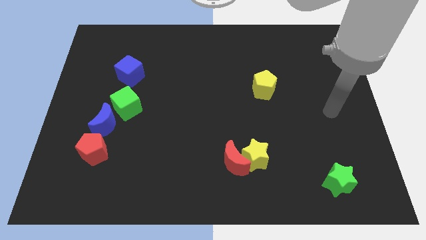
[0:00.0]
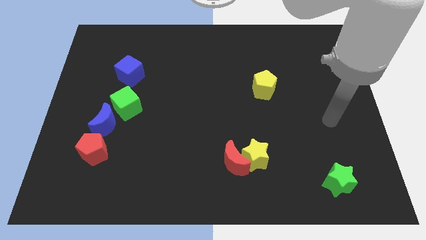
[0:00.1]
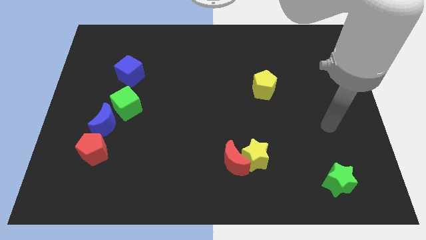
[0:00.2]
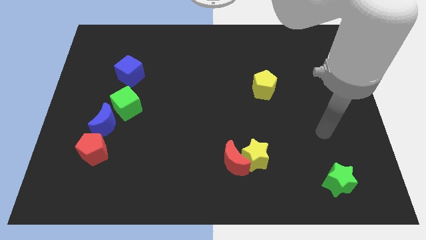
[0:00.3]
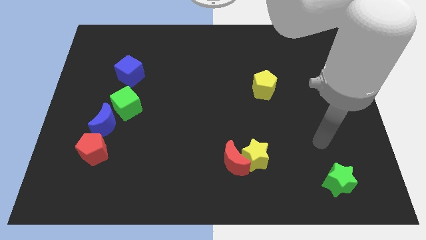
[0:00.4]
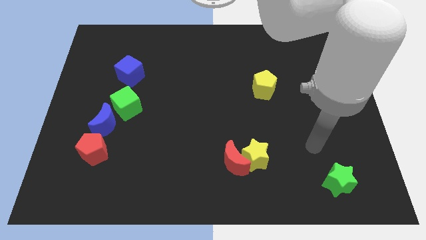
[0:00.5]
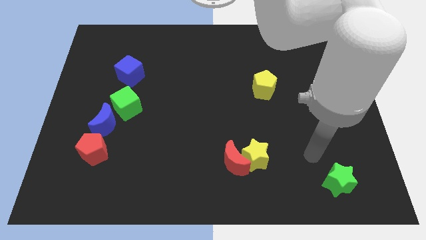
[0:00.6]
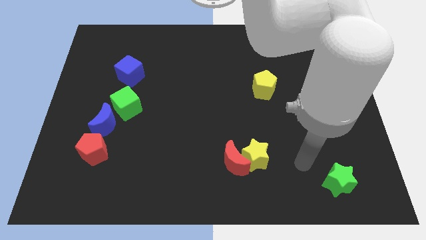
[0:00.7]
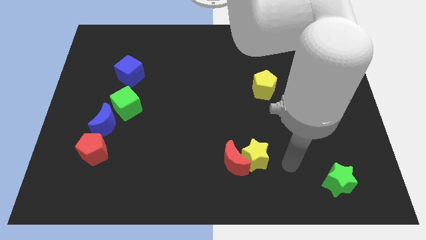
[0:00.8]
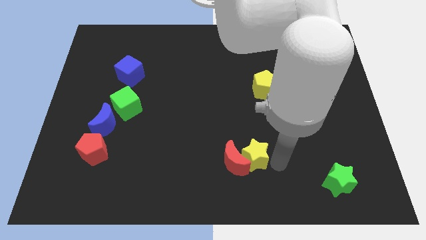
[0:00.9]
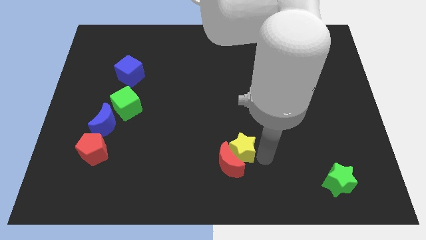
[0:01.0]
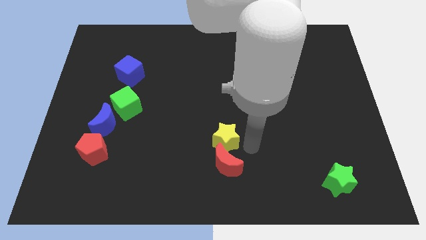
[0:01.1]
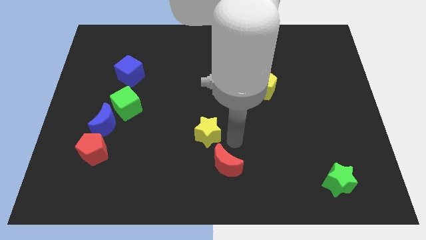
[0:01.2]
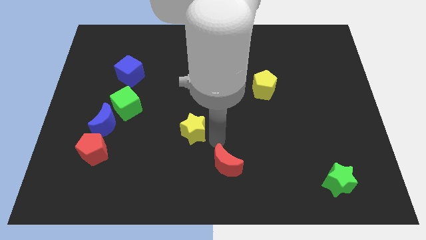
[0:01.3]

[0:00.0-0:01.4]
pull the red moon apart from the yellow star

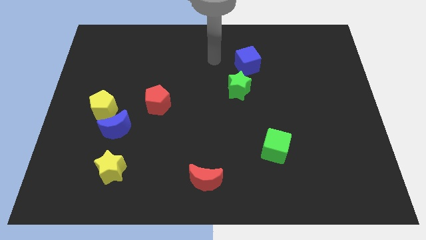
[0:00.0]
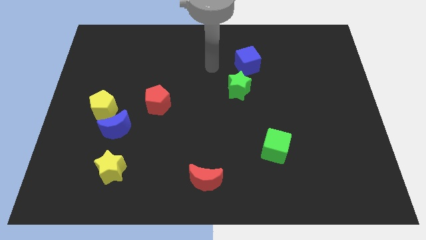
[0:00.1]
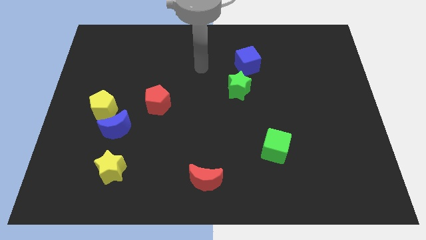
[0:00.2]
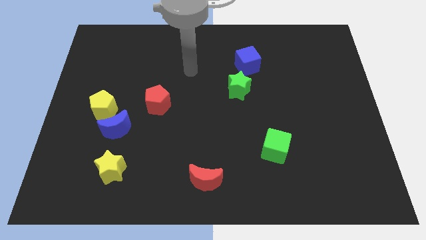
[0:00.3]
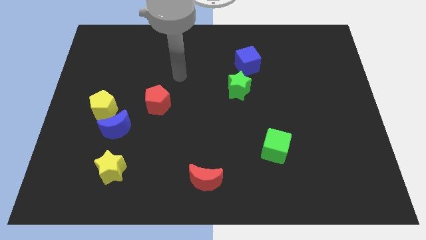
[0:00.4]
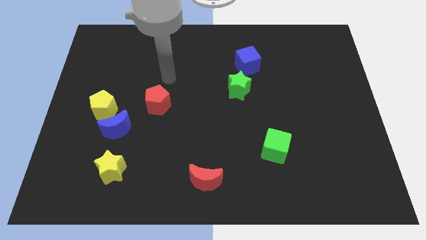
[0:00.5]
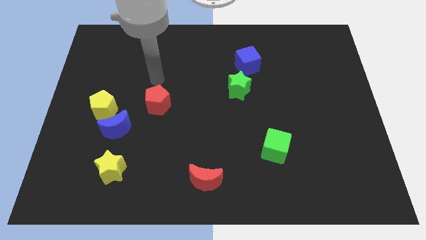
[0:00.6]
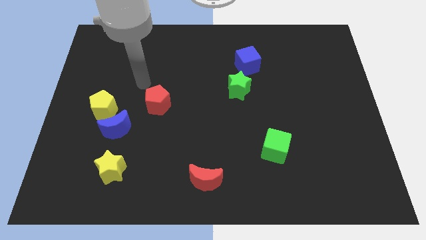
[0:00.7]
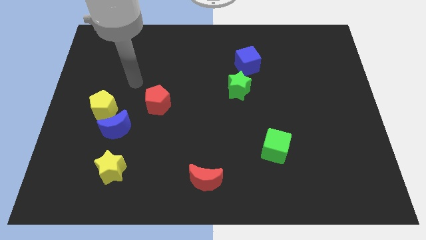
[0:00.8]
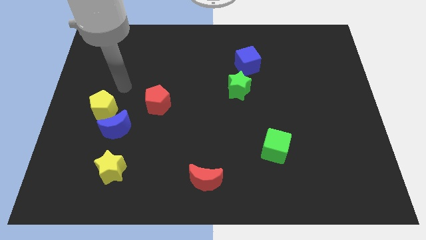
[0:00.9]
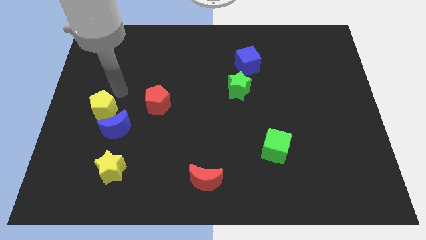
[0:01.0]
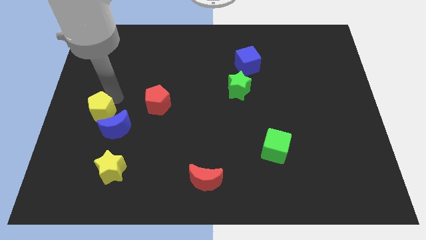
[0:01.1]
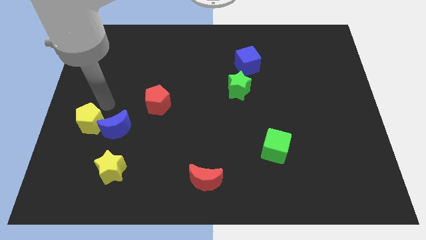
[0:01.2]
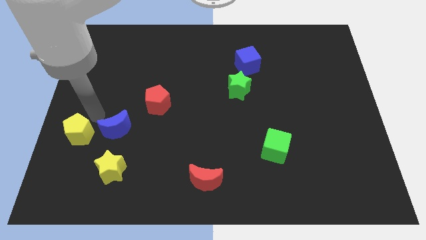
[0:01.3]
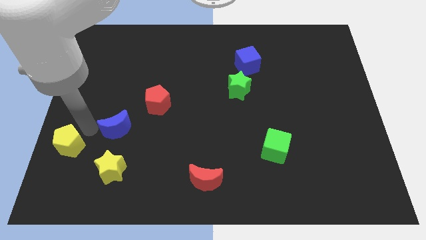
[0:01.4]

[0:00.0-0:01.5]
separate the blue moon from the yellow pentagon

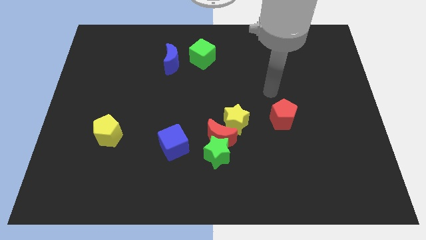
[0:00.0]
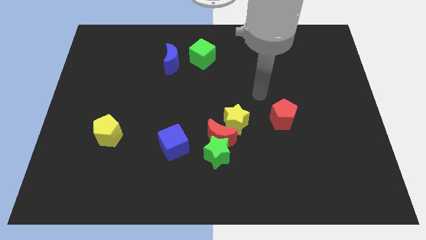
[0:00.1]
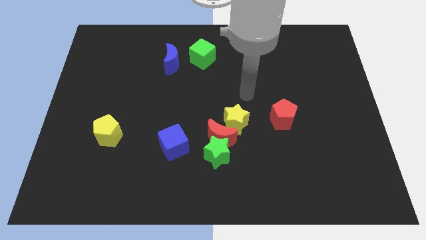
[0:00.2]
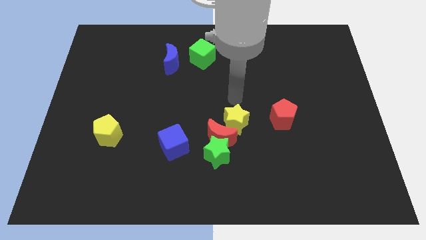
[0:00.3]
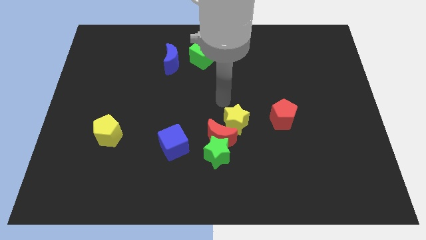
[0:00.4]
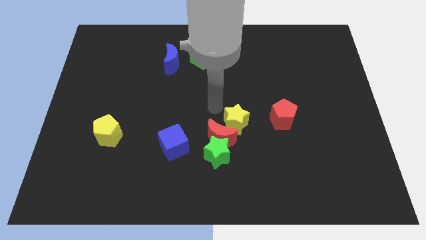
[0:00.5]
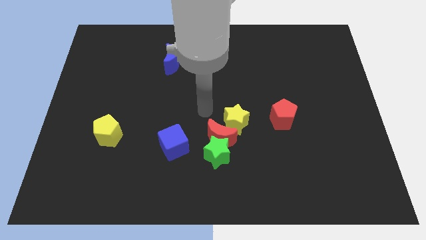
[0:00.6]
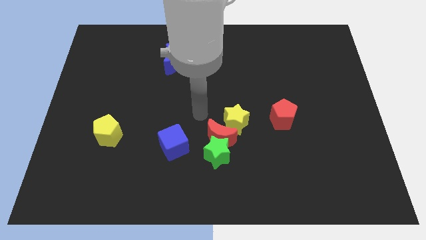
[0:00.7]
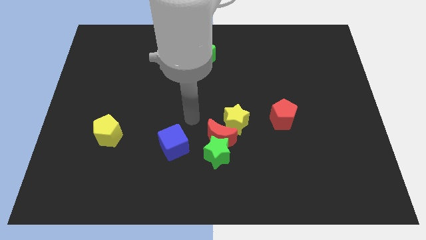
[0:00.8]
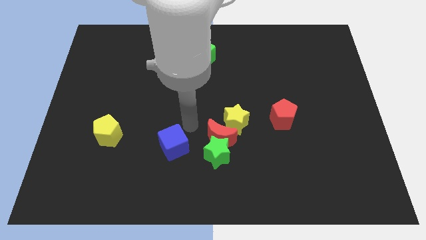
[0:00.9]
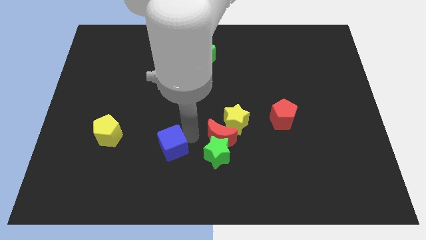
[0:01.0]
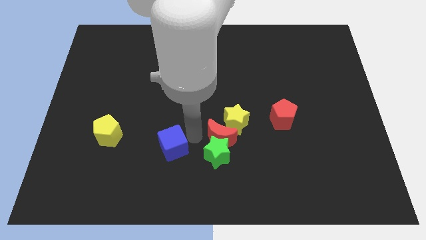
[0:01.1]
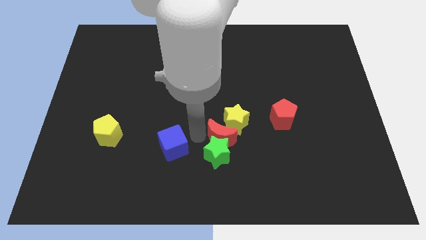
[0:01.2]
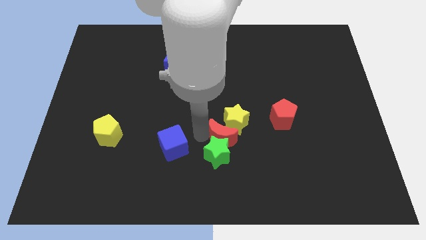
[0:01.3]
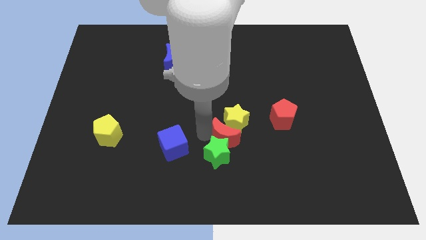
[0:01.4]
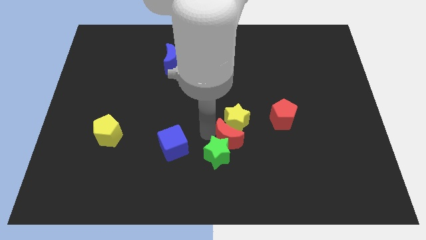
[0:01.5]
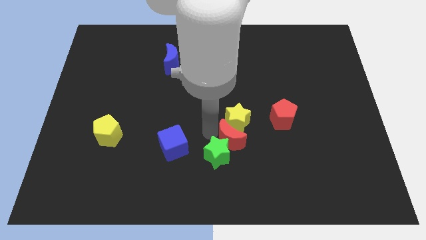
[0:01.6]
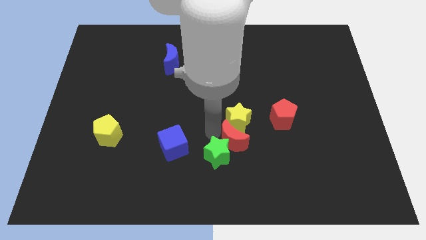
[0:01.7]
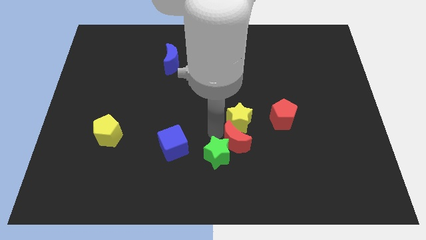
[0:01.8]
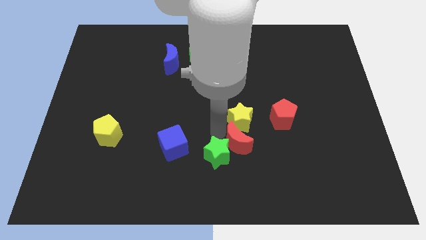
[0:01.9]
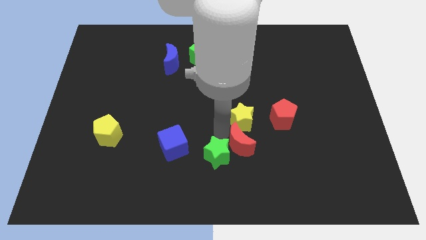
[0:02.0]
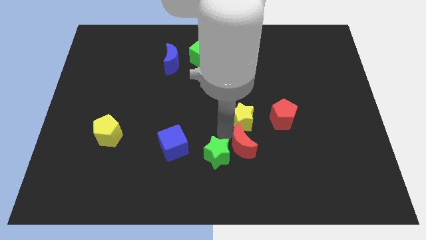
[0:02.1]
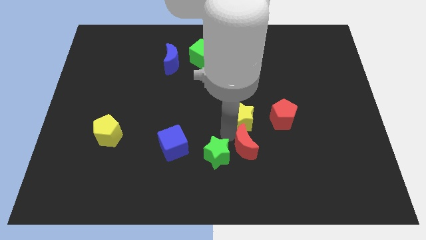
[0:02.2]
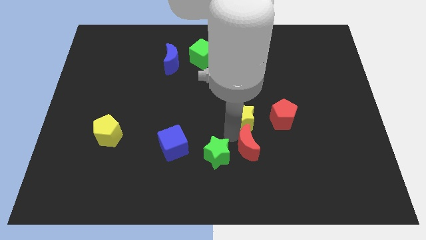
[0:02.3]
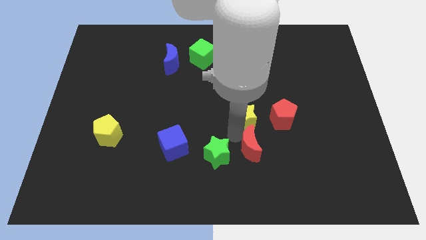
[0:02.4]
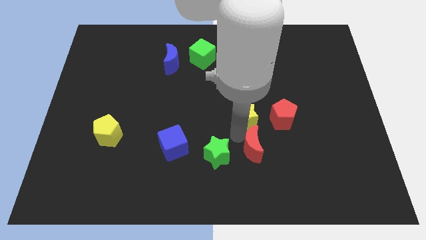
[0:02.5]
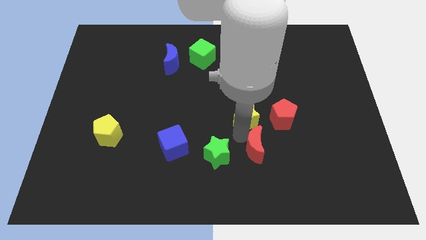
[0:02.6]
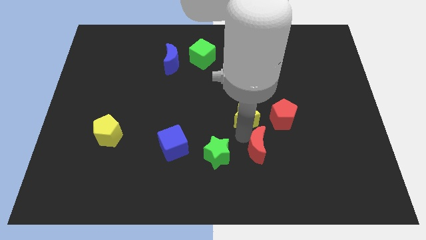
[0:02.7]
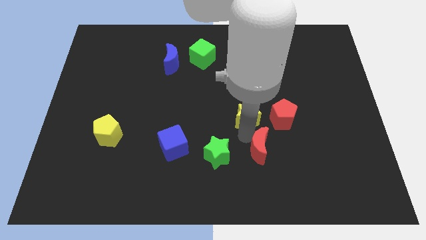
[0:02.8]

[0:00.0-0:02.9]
separate the red moon from the green star, yellow star, and blue cube

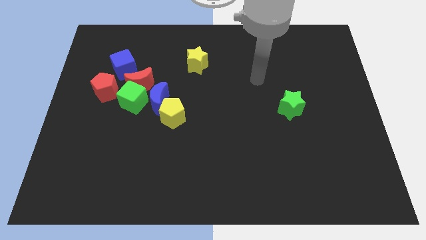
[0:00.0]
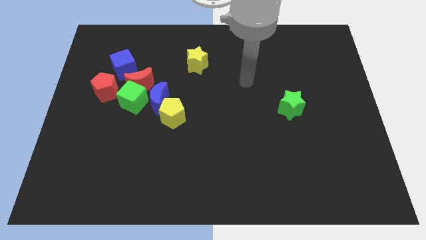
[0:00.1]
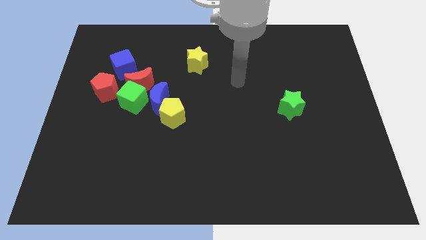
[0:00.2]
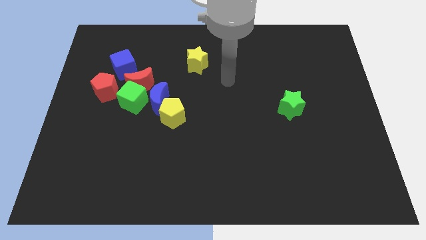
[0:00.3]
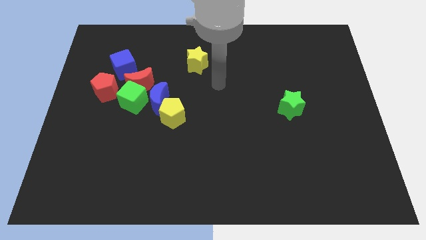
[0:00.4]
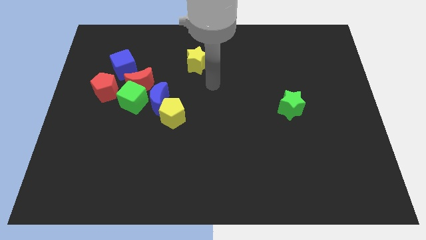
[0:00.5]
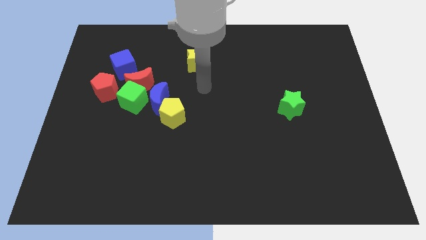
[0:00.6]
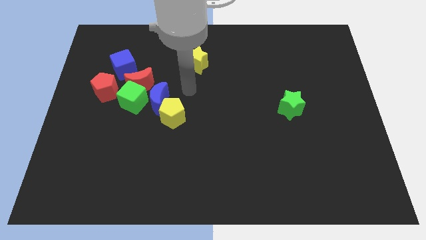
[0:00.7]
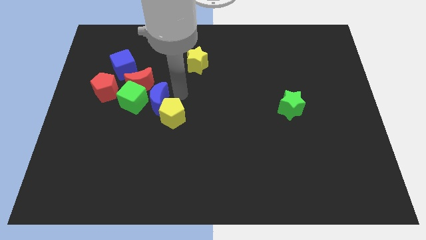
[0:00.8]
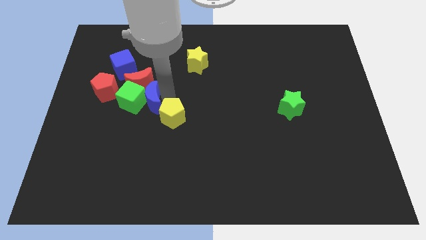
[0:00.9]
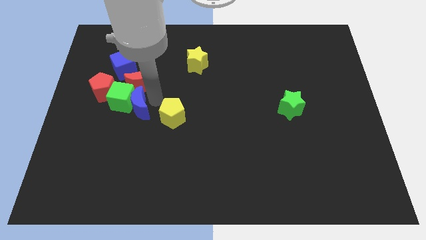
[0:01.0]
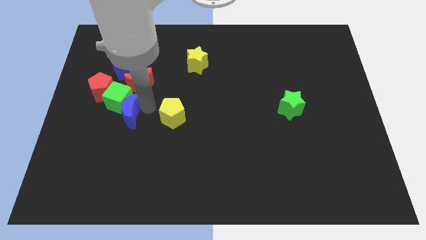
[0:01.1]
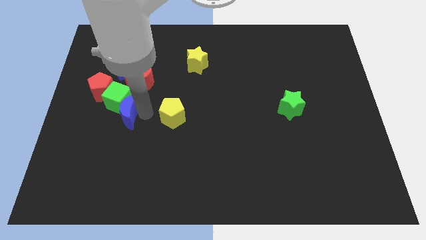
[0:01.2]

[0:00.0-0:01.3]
pull the yellow pentagon apart from the blue moon

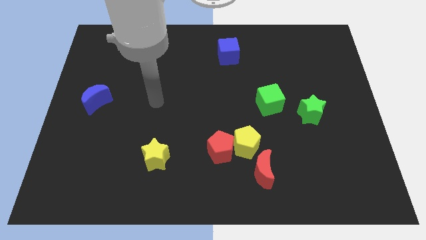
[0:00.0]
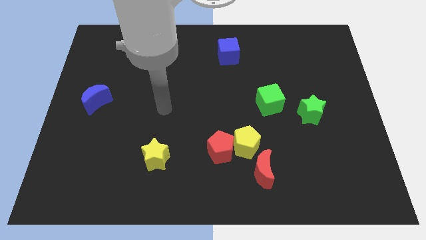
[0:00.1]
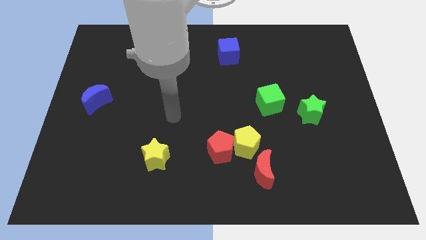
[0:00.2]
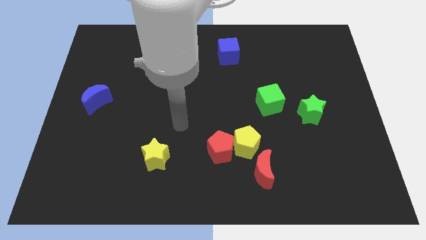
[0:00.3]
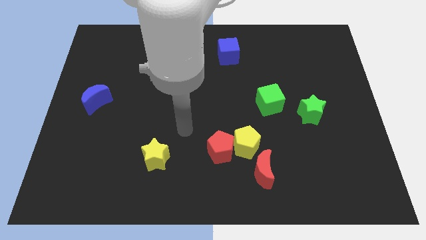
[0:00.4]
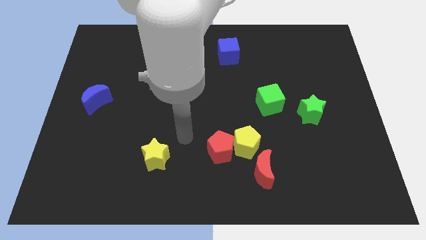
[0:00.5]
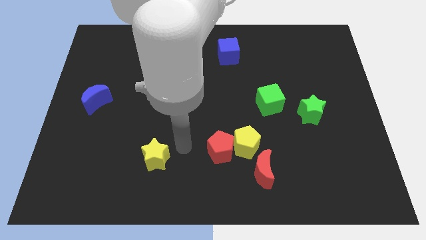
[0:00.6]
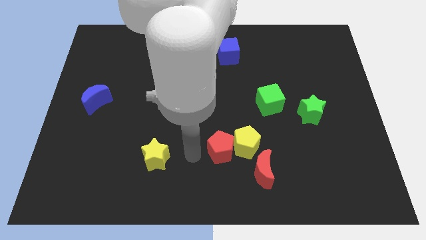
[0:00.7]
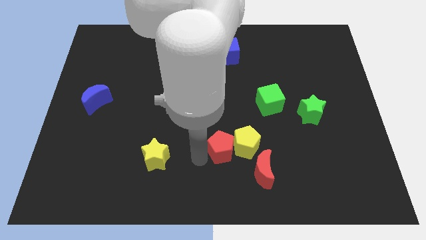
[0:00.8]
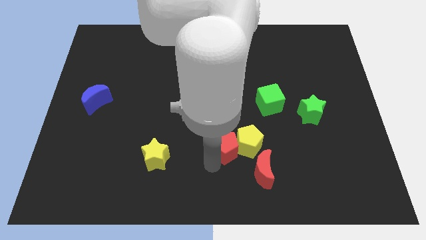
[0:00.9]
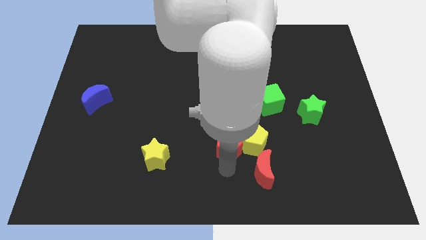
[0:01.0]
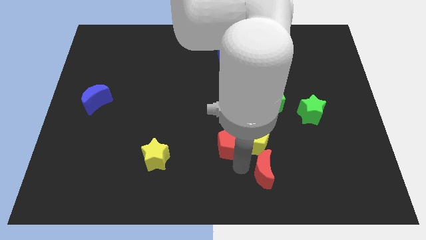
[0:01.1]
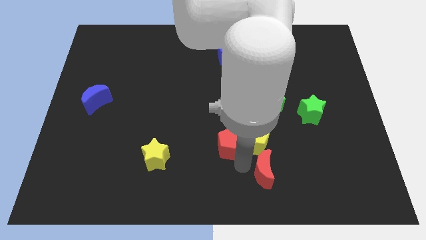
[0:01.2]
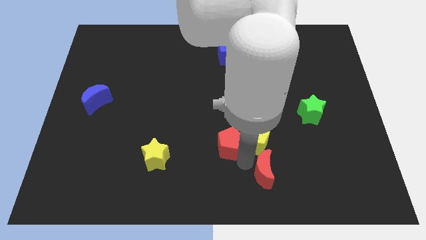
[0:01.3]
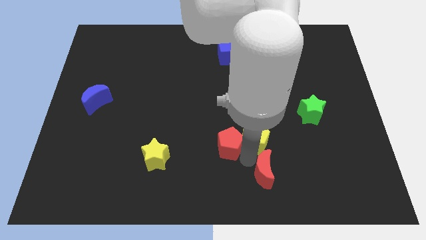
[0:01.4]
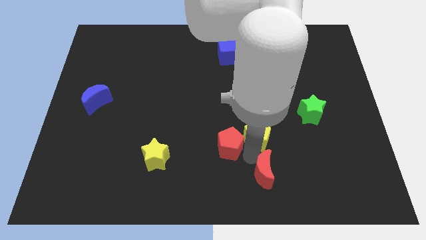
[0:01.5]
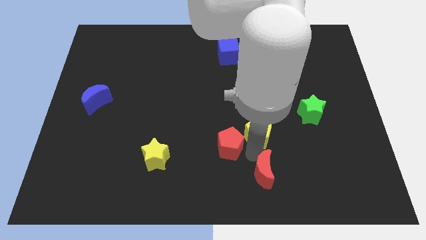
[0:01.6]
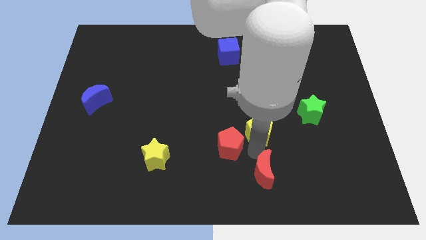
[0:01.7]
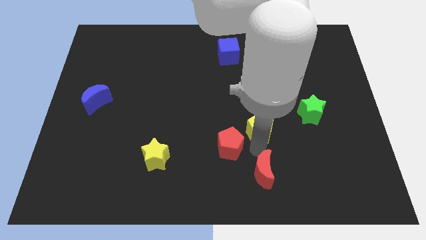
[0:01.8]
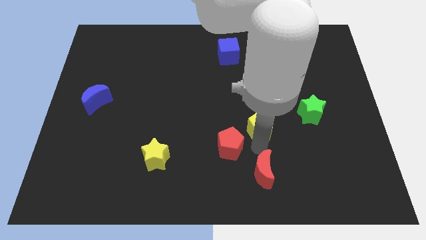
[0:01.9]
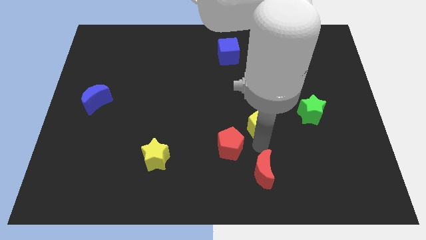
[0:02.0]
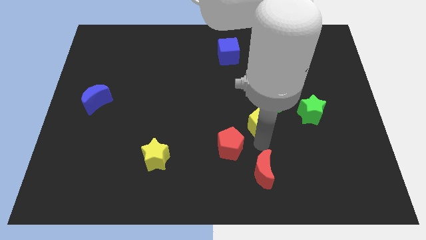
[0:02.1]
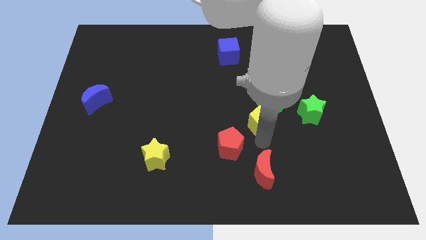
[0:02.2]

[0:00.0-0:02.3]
move the yellow pentagon away from the red pentagon and red moon
